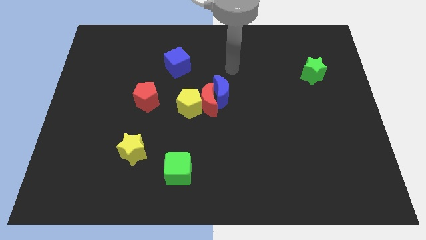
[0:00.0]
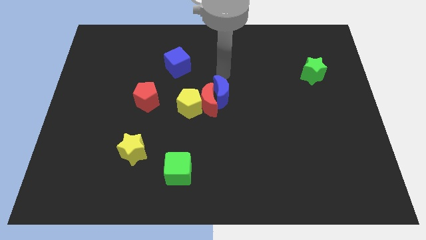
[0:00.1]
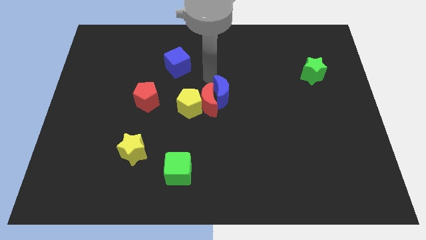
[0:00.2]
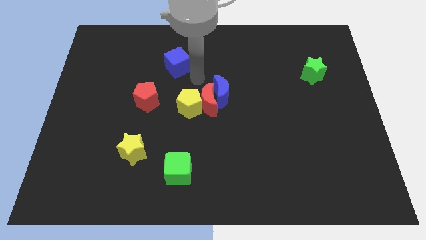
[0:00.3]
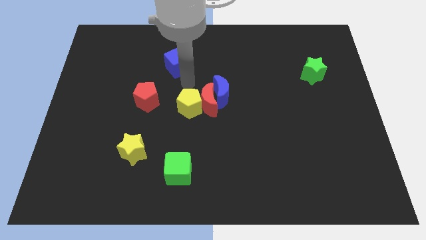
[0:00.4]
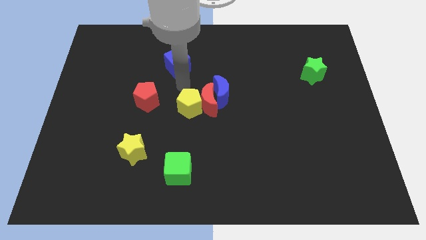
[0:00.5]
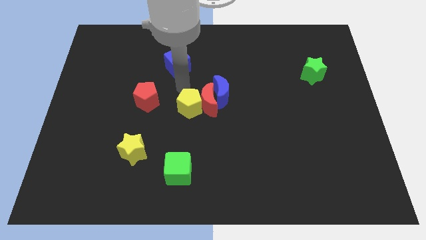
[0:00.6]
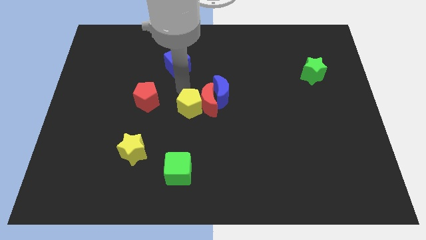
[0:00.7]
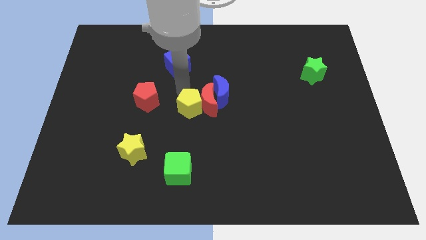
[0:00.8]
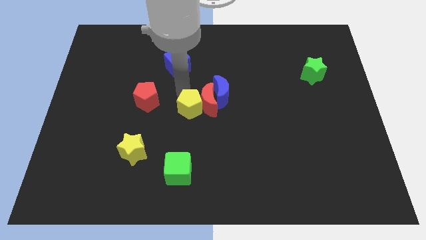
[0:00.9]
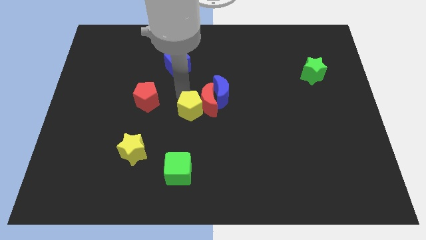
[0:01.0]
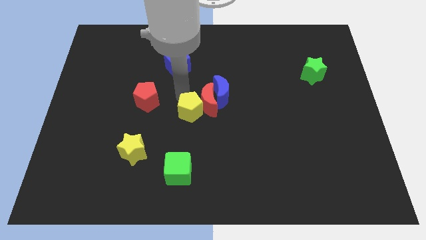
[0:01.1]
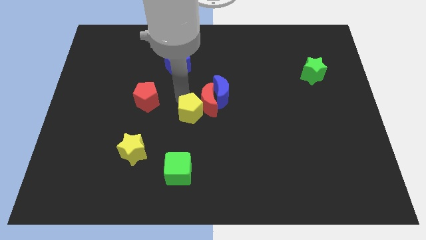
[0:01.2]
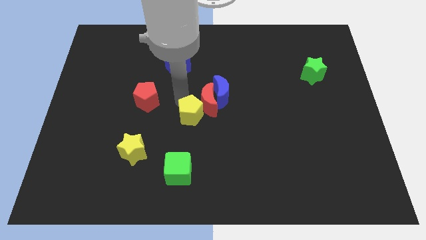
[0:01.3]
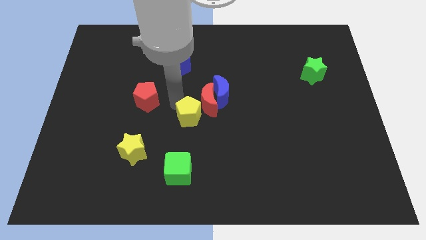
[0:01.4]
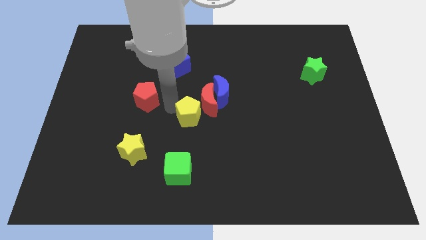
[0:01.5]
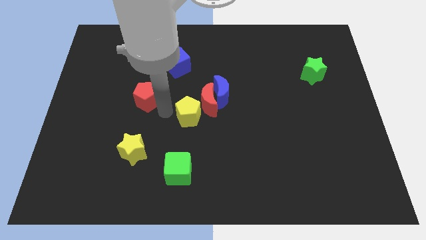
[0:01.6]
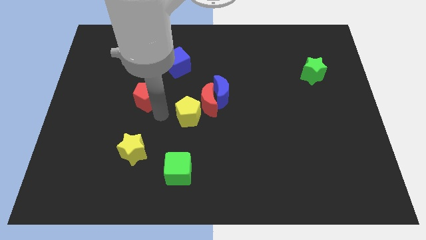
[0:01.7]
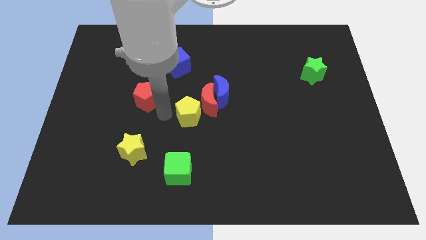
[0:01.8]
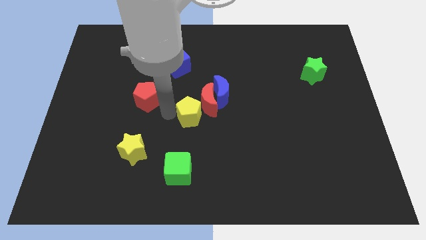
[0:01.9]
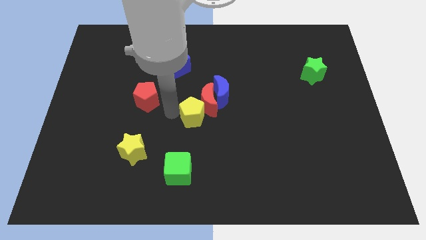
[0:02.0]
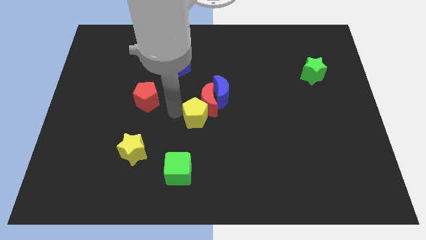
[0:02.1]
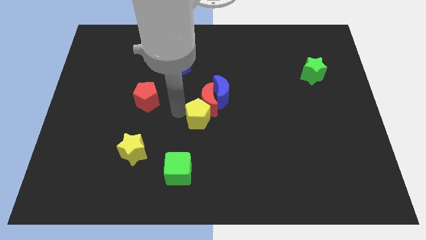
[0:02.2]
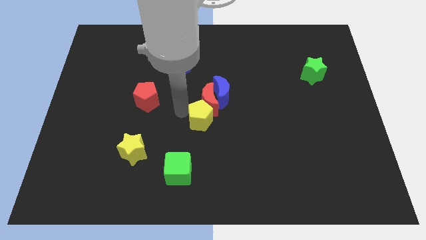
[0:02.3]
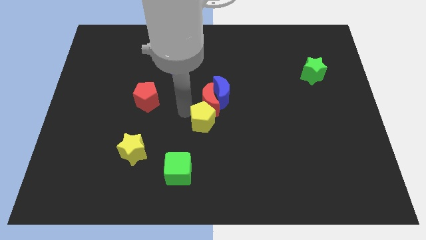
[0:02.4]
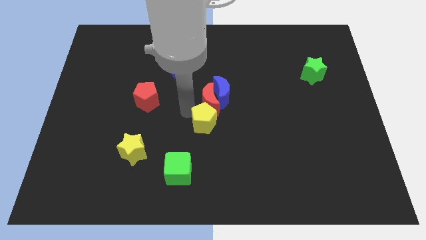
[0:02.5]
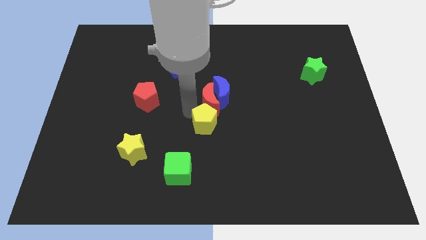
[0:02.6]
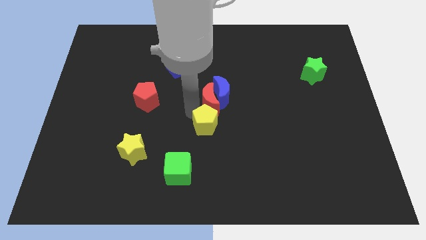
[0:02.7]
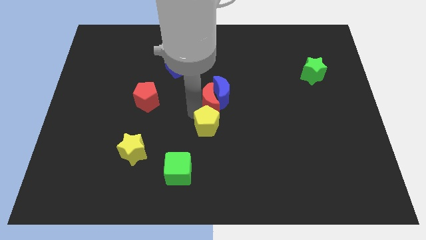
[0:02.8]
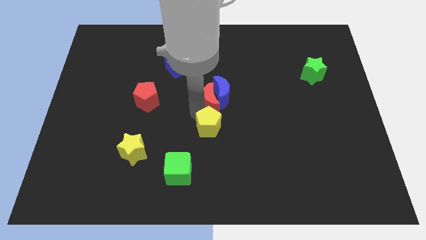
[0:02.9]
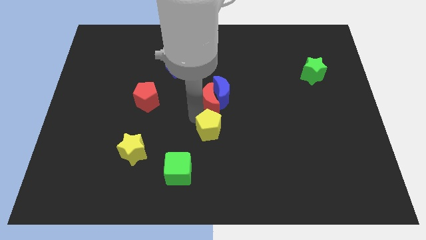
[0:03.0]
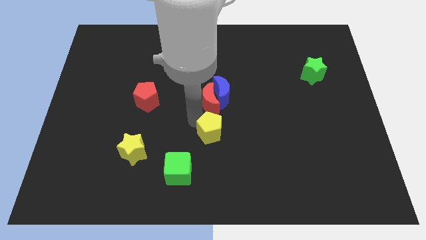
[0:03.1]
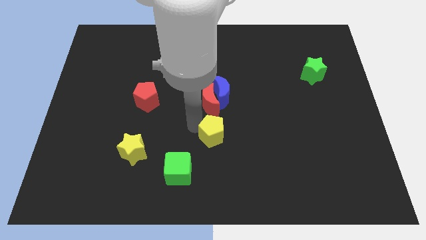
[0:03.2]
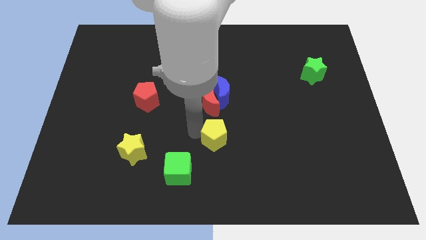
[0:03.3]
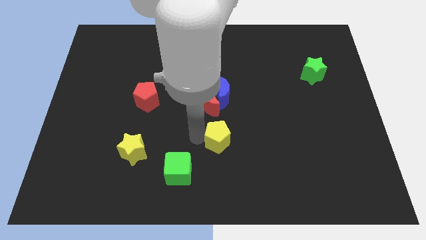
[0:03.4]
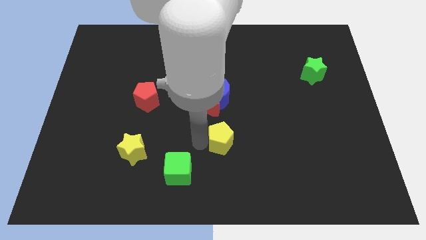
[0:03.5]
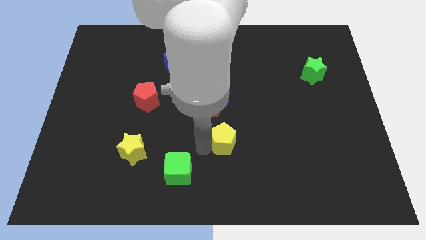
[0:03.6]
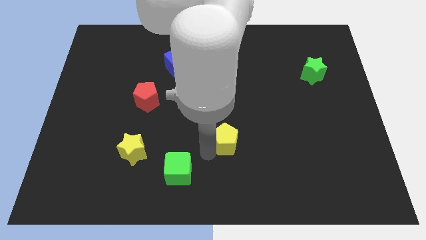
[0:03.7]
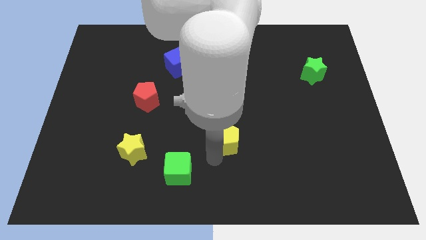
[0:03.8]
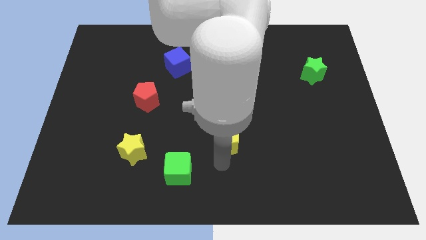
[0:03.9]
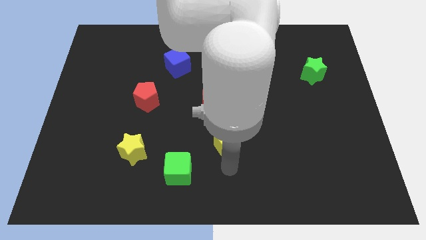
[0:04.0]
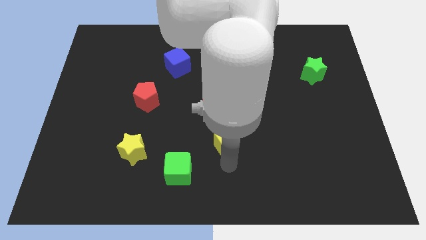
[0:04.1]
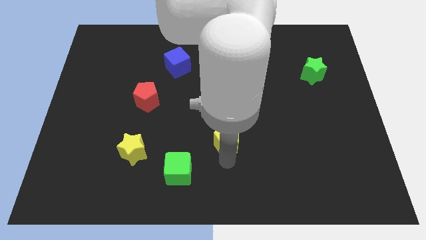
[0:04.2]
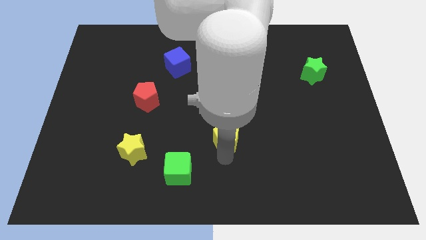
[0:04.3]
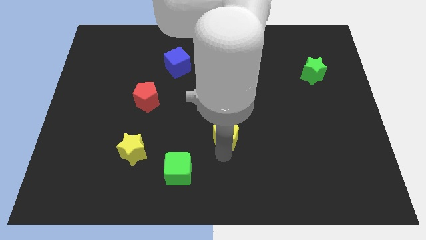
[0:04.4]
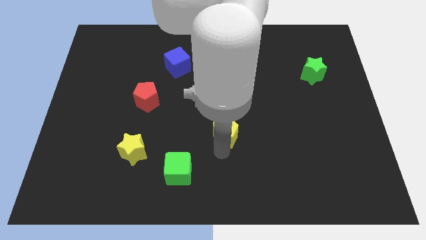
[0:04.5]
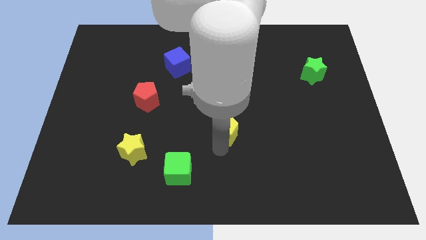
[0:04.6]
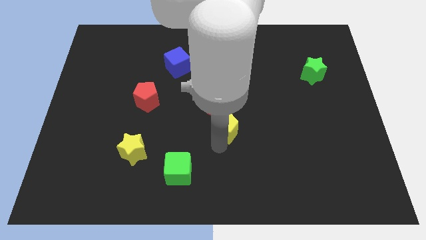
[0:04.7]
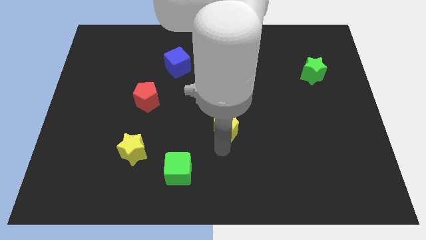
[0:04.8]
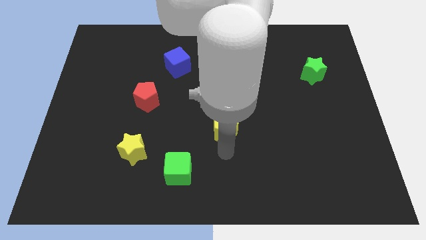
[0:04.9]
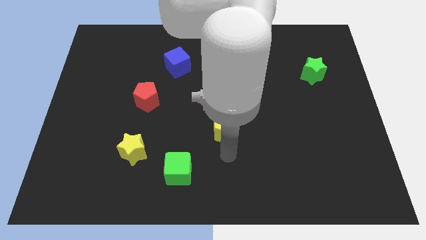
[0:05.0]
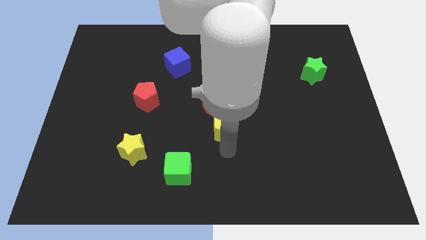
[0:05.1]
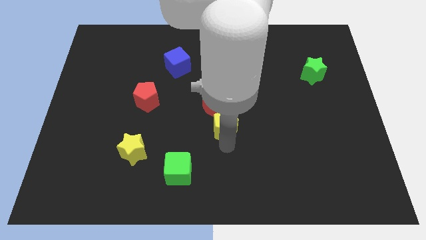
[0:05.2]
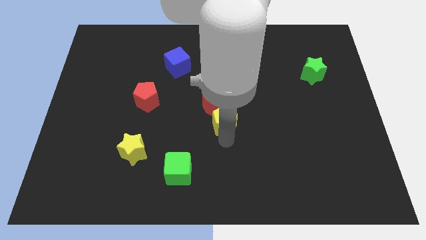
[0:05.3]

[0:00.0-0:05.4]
push the yellow pentagon slightly to the right

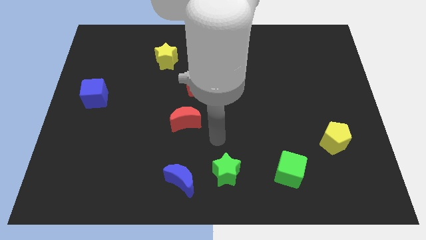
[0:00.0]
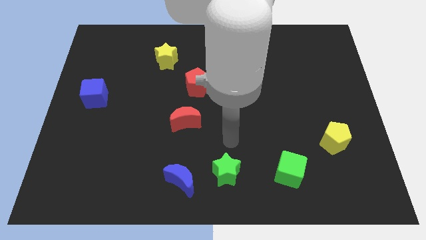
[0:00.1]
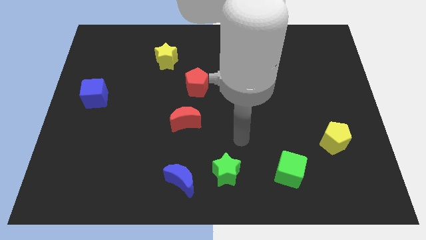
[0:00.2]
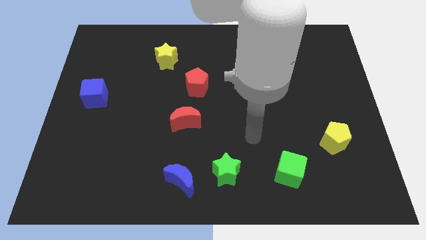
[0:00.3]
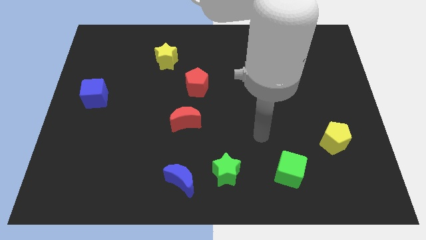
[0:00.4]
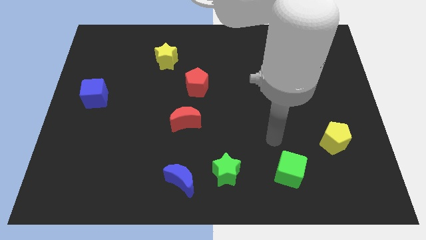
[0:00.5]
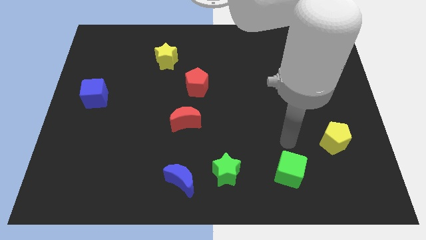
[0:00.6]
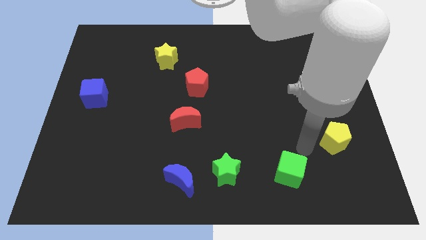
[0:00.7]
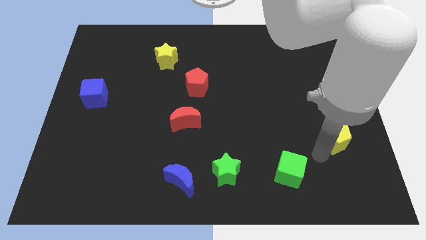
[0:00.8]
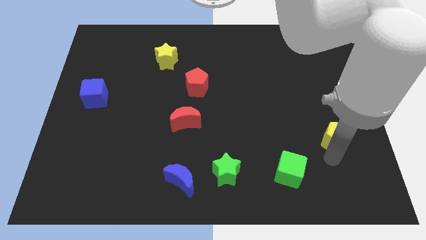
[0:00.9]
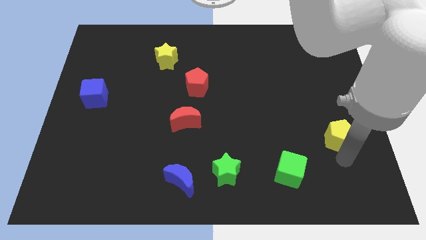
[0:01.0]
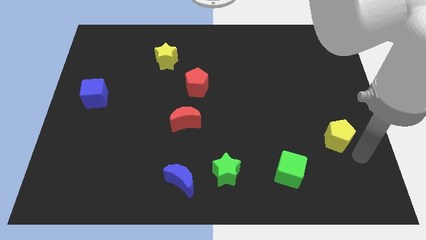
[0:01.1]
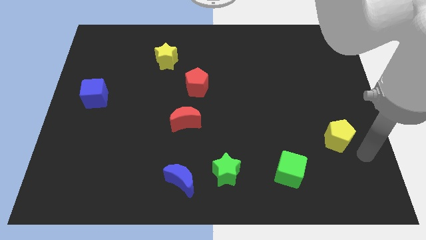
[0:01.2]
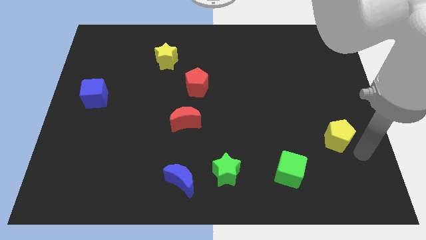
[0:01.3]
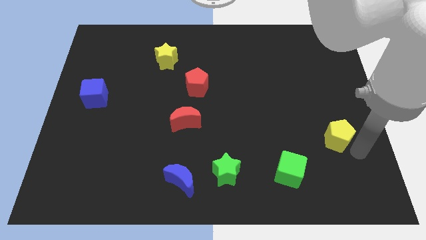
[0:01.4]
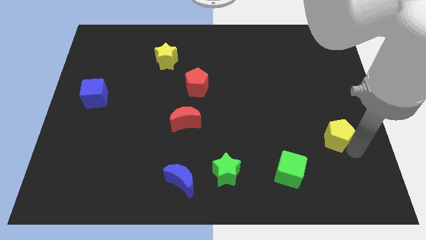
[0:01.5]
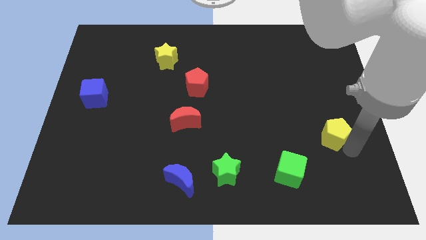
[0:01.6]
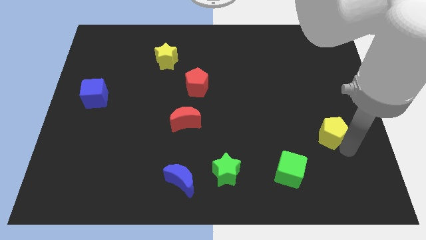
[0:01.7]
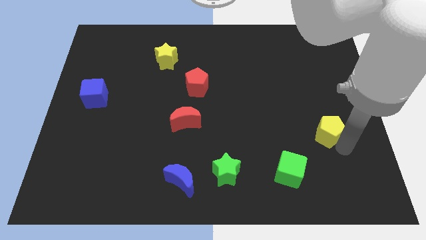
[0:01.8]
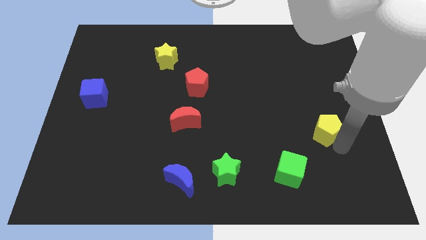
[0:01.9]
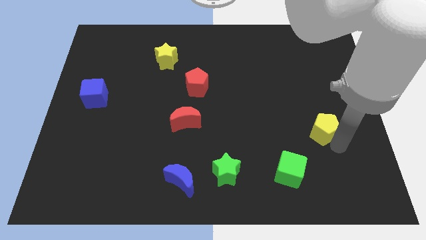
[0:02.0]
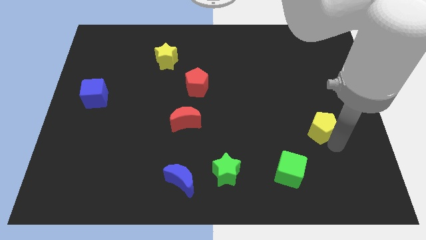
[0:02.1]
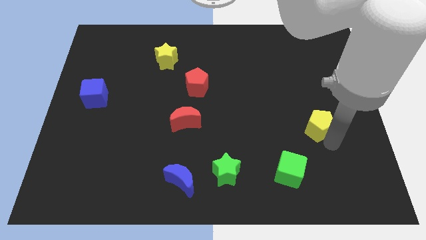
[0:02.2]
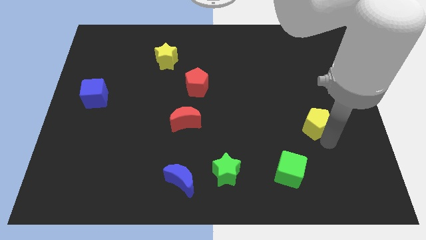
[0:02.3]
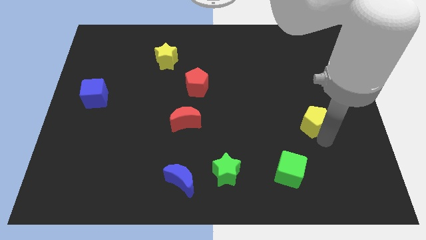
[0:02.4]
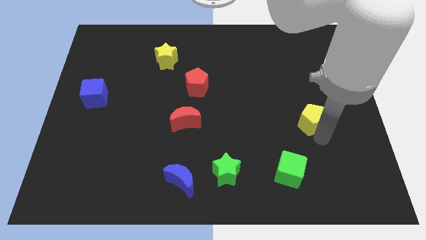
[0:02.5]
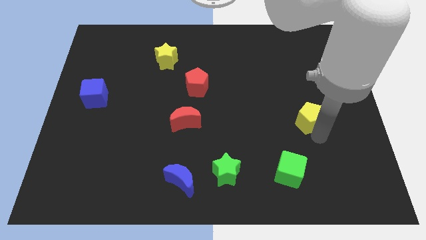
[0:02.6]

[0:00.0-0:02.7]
slightly push the yellow pentagon upwards and to the left

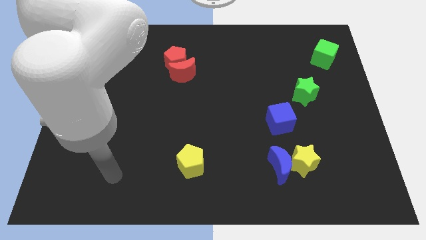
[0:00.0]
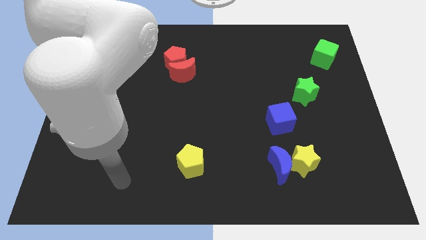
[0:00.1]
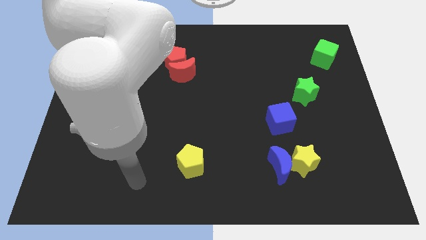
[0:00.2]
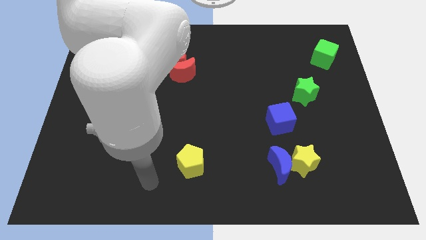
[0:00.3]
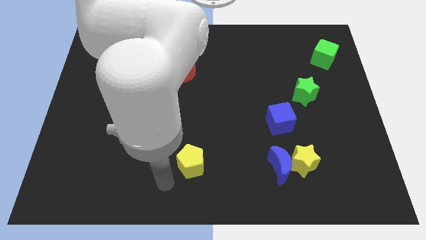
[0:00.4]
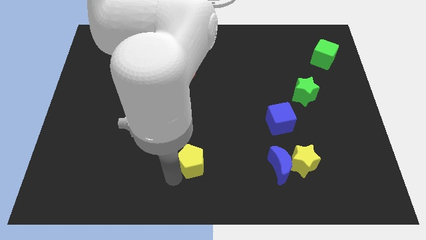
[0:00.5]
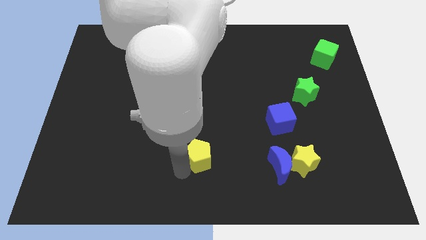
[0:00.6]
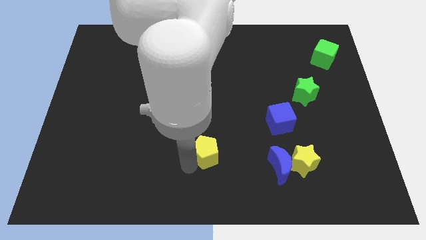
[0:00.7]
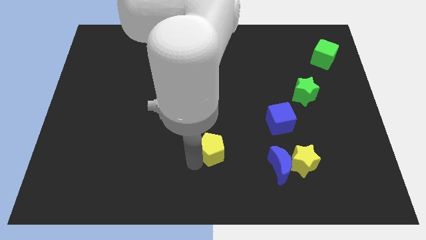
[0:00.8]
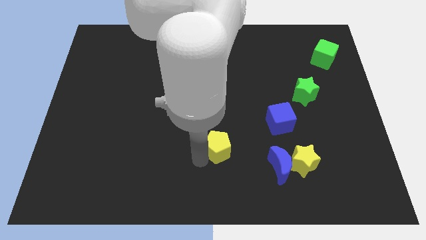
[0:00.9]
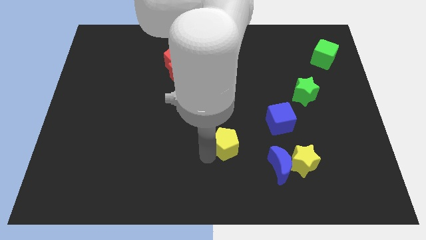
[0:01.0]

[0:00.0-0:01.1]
slide the yellow pentagon somewhat up and right
